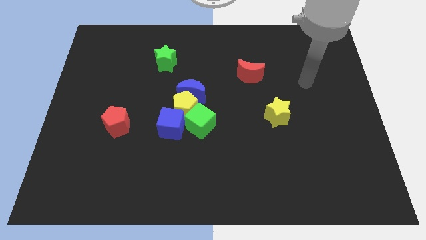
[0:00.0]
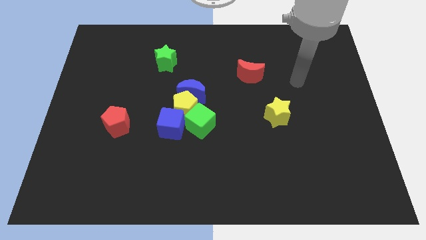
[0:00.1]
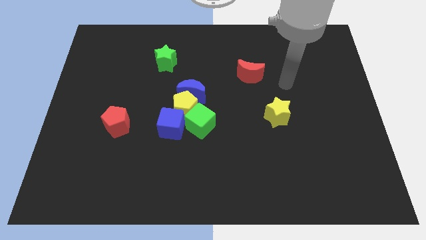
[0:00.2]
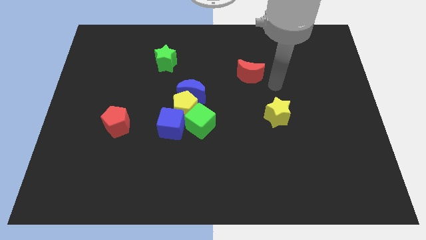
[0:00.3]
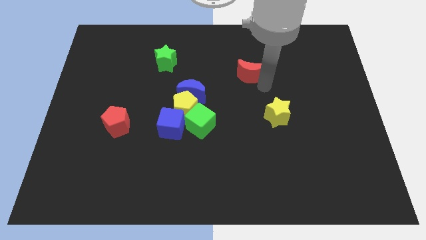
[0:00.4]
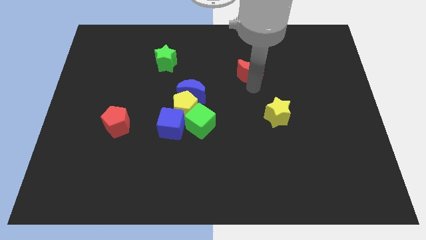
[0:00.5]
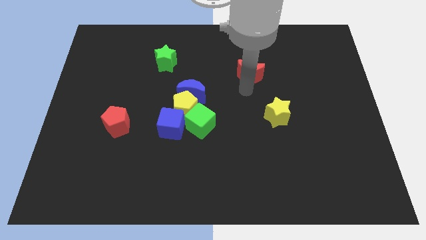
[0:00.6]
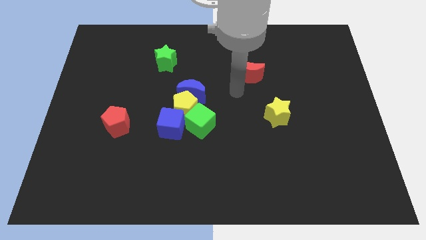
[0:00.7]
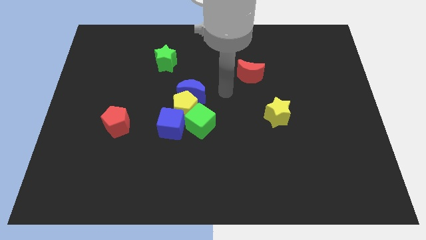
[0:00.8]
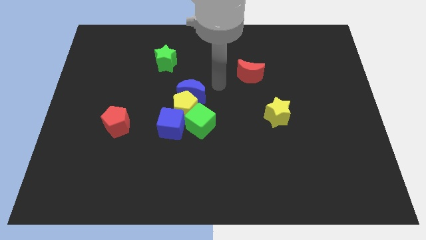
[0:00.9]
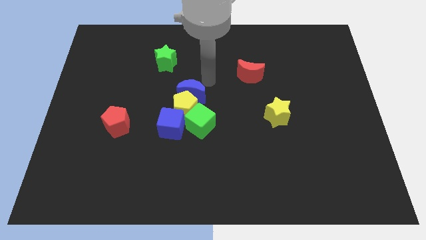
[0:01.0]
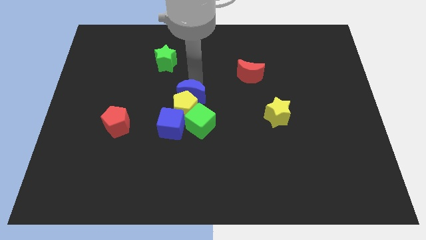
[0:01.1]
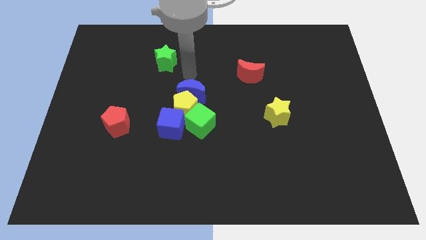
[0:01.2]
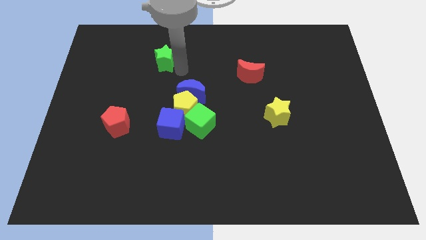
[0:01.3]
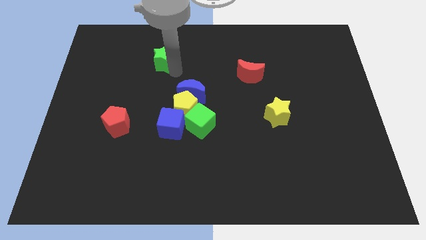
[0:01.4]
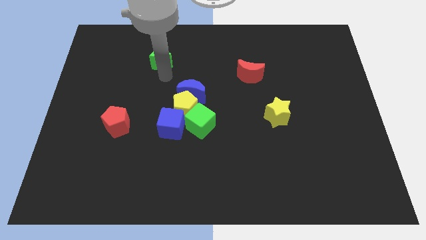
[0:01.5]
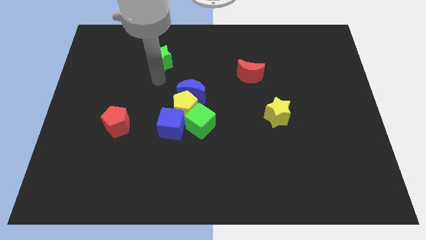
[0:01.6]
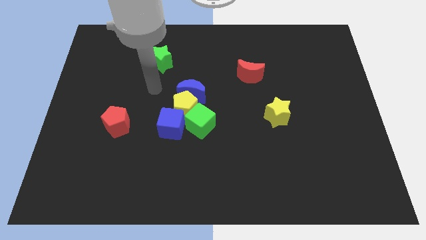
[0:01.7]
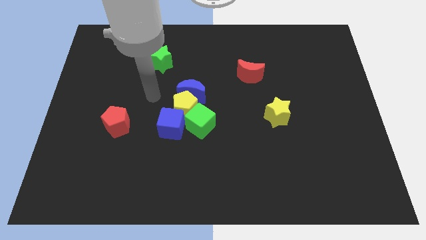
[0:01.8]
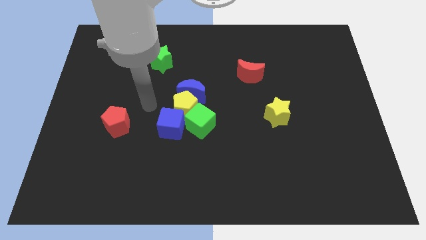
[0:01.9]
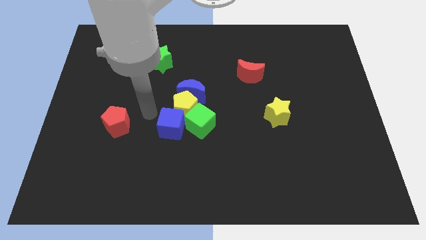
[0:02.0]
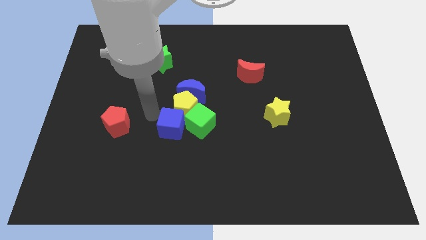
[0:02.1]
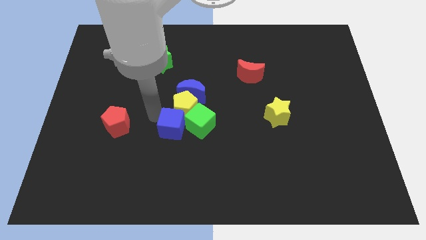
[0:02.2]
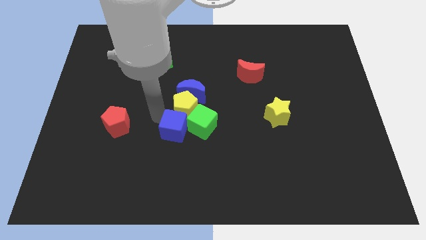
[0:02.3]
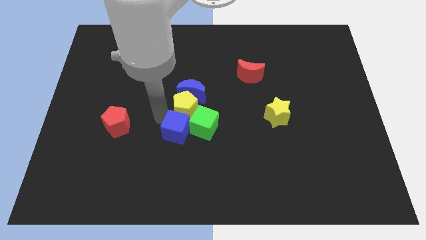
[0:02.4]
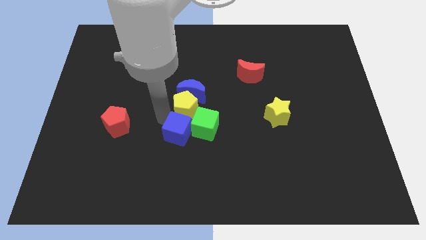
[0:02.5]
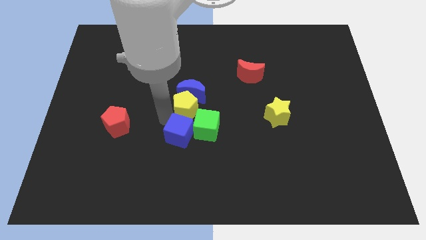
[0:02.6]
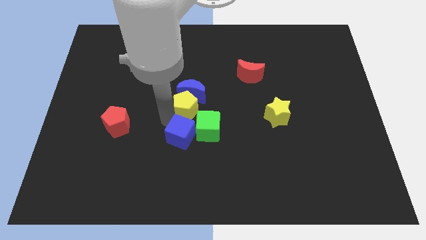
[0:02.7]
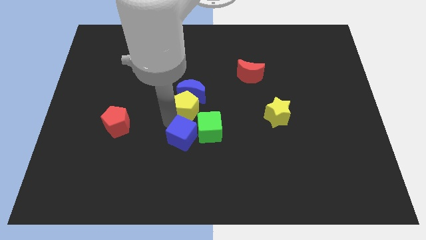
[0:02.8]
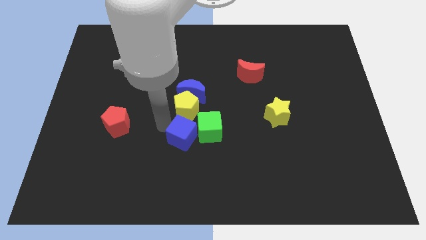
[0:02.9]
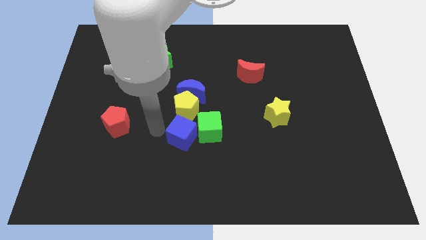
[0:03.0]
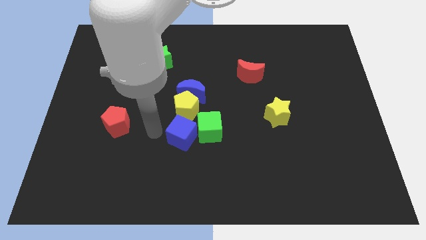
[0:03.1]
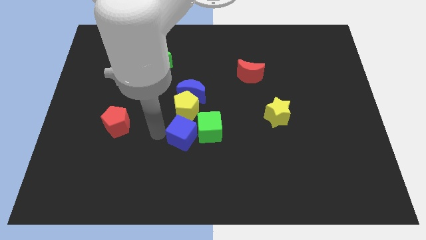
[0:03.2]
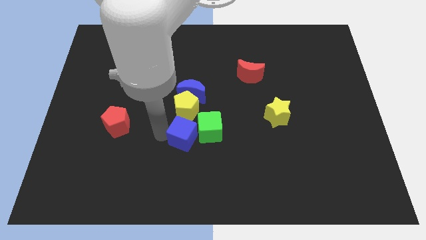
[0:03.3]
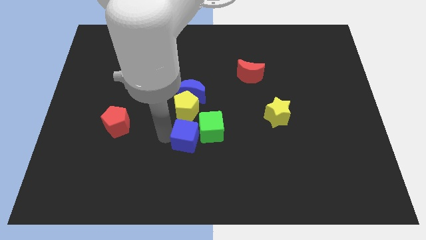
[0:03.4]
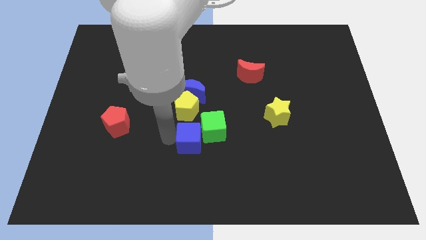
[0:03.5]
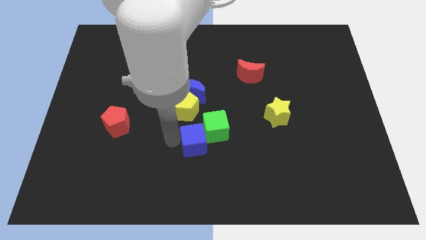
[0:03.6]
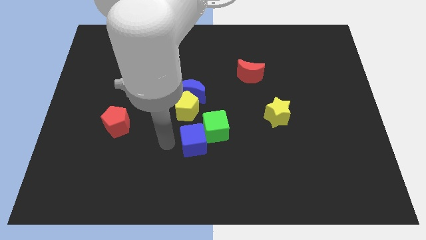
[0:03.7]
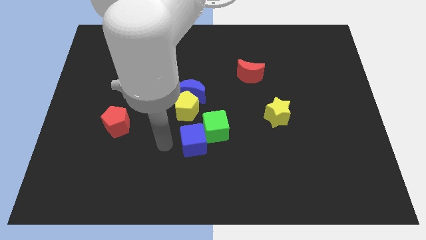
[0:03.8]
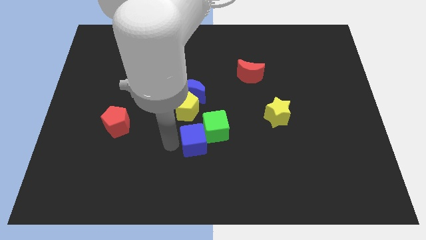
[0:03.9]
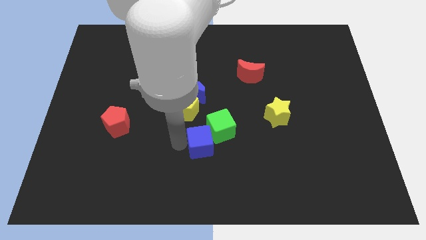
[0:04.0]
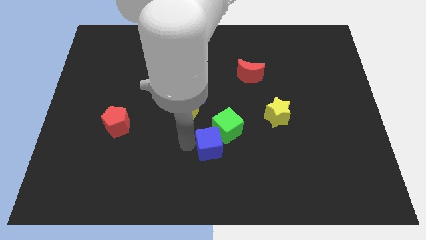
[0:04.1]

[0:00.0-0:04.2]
slightly push the blue cube to the right

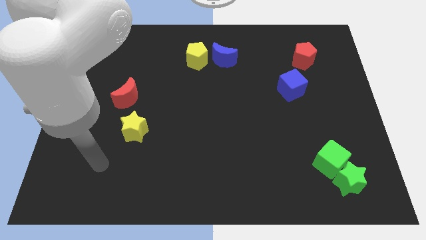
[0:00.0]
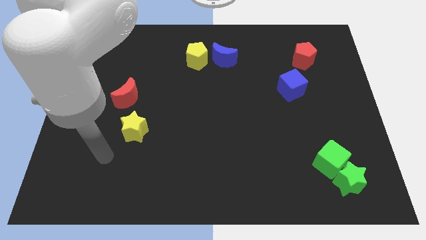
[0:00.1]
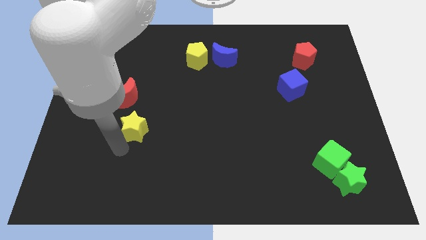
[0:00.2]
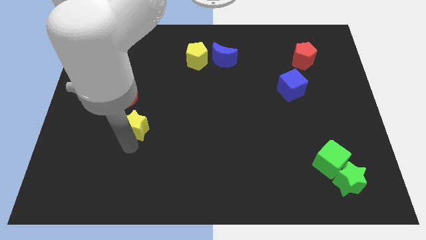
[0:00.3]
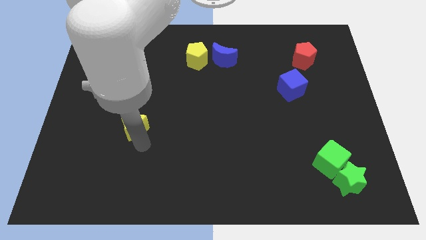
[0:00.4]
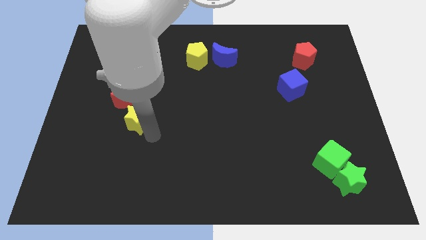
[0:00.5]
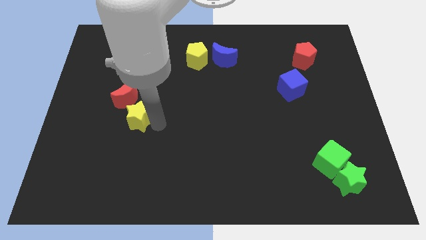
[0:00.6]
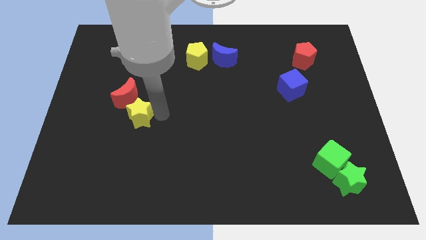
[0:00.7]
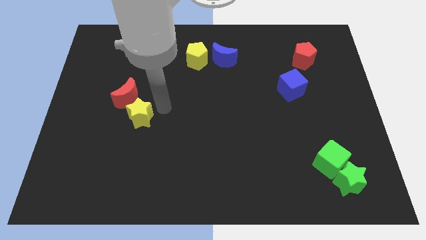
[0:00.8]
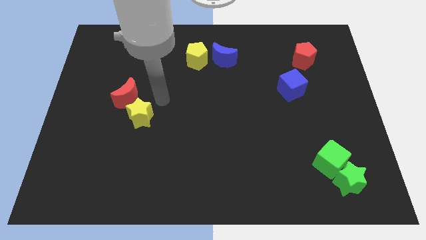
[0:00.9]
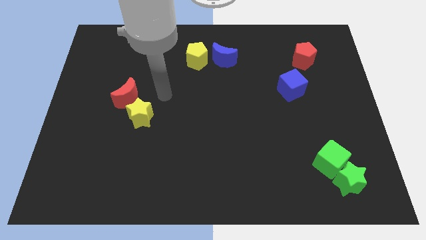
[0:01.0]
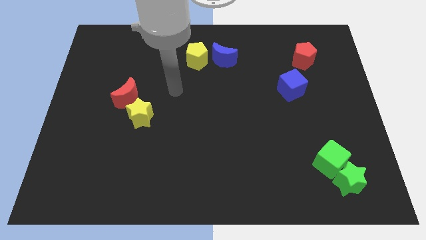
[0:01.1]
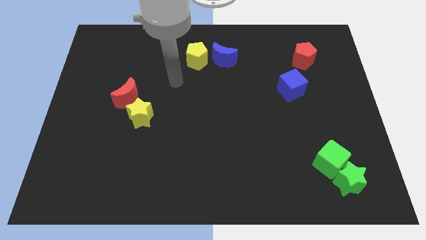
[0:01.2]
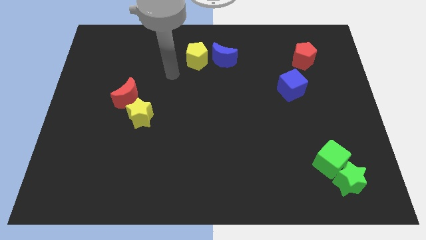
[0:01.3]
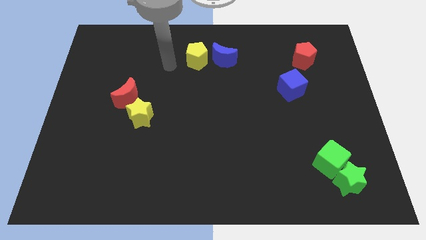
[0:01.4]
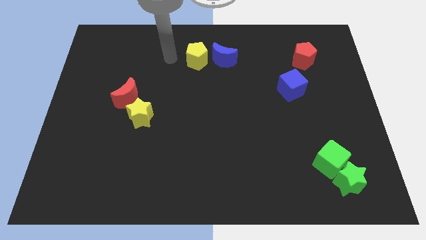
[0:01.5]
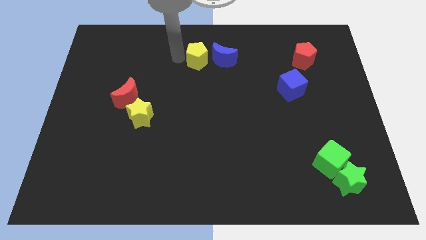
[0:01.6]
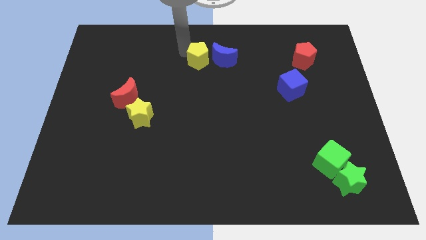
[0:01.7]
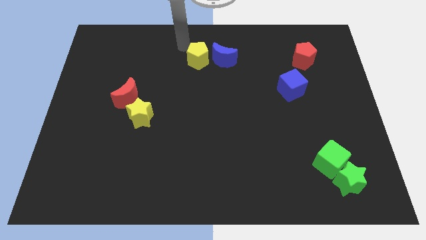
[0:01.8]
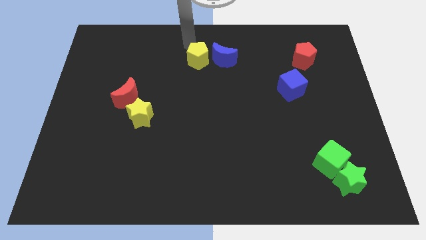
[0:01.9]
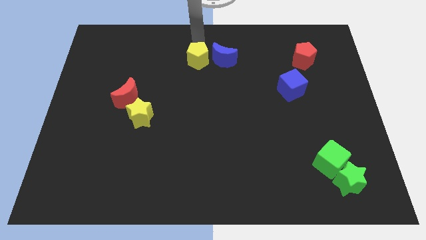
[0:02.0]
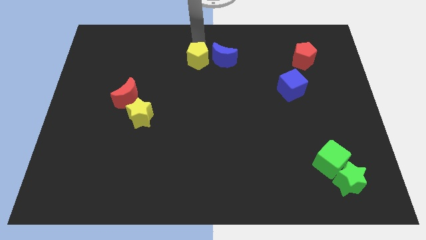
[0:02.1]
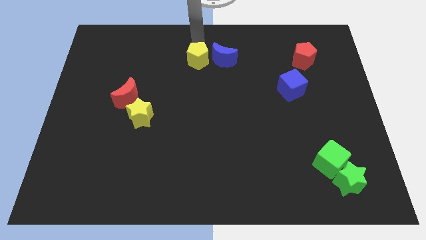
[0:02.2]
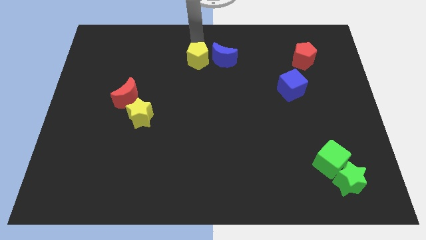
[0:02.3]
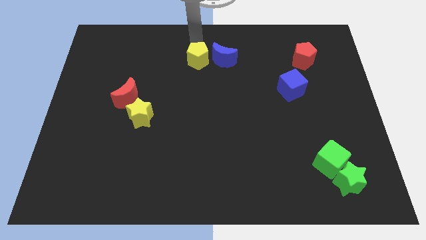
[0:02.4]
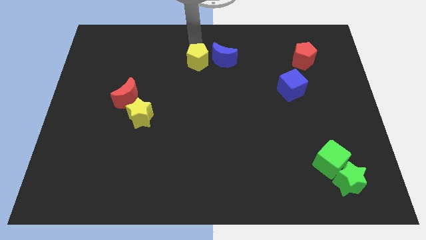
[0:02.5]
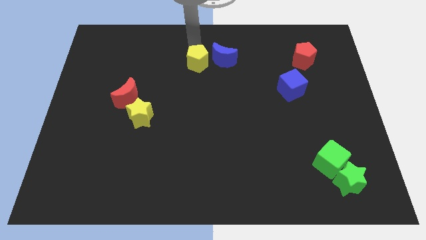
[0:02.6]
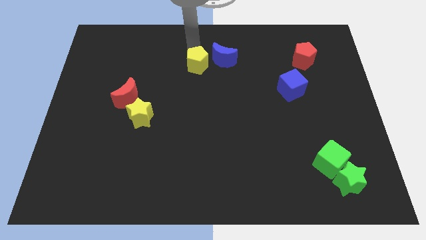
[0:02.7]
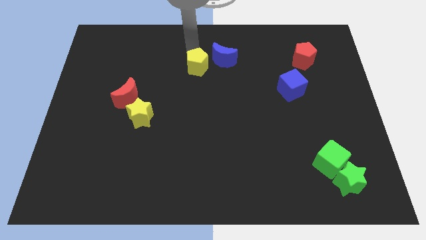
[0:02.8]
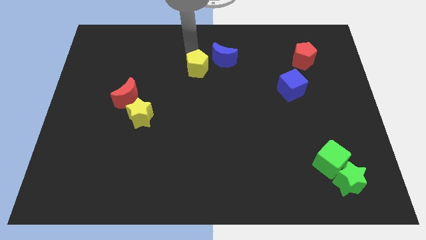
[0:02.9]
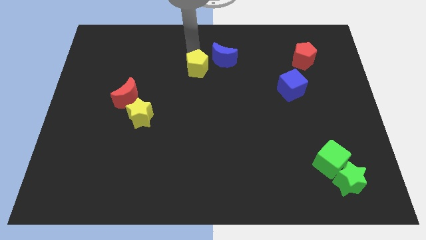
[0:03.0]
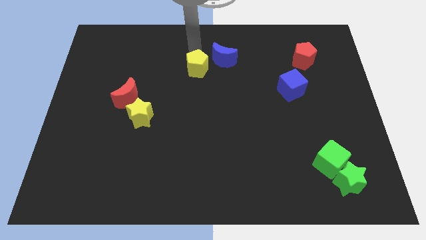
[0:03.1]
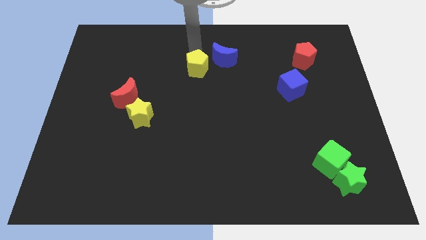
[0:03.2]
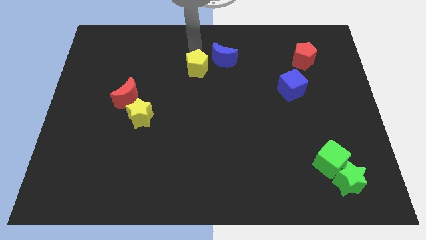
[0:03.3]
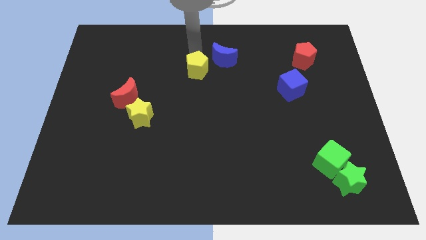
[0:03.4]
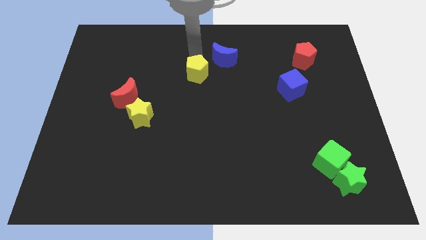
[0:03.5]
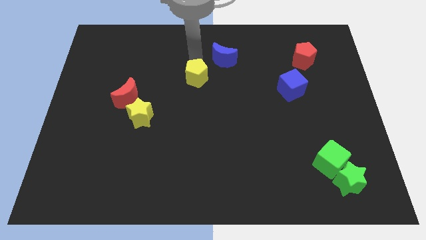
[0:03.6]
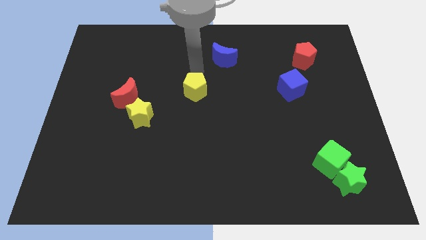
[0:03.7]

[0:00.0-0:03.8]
push the yellow pentagon downwards a little bit
